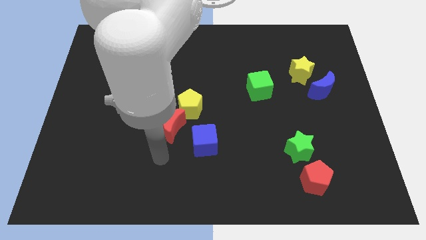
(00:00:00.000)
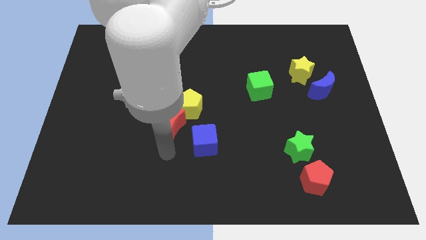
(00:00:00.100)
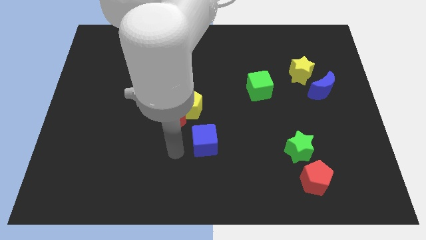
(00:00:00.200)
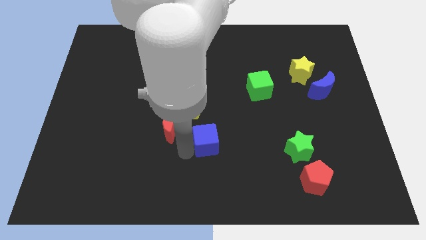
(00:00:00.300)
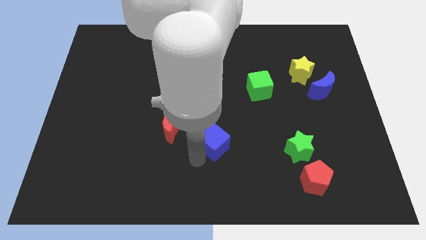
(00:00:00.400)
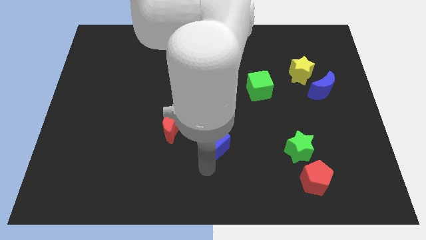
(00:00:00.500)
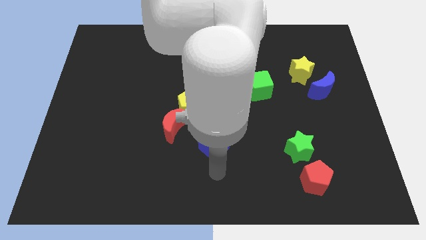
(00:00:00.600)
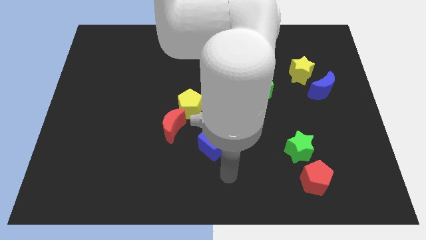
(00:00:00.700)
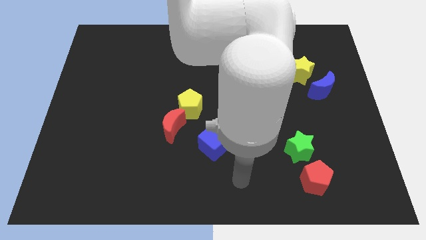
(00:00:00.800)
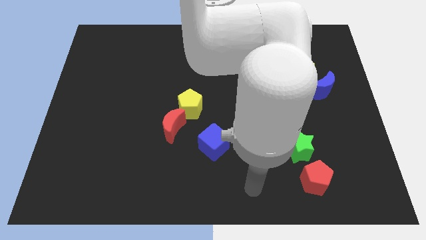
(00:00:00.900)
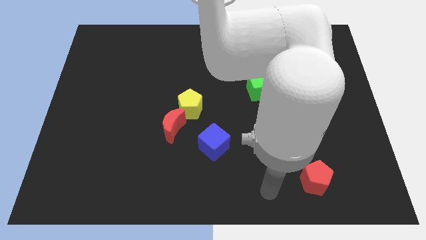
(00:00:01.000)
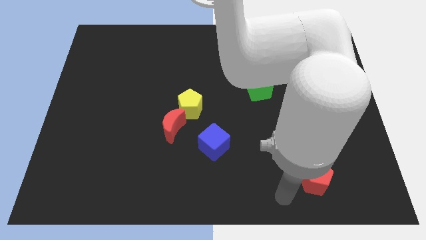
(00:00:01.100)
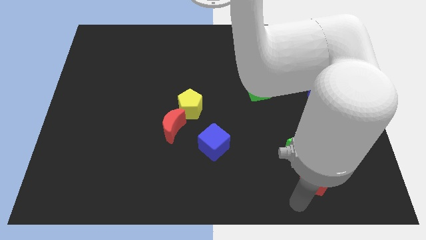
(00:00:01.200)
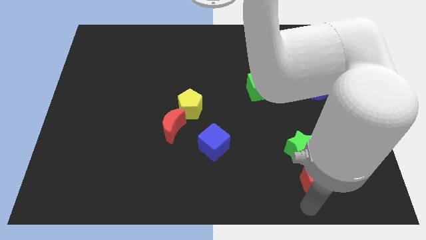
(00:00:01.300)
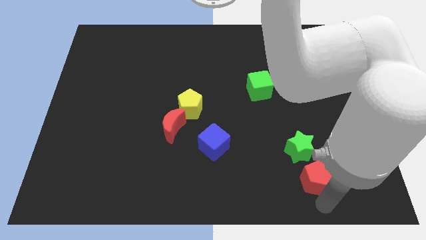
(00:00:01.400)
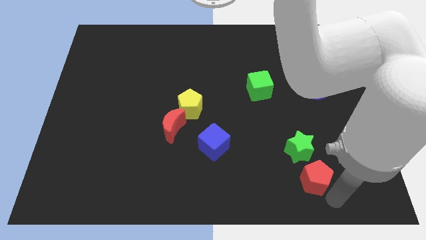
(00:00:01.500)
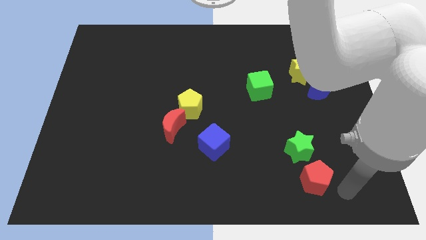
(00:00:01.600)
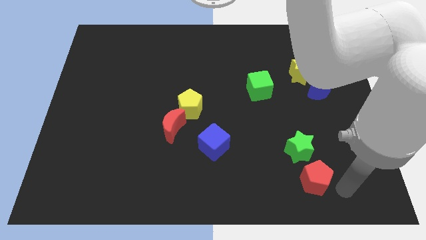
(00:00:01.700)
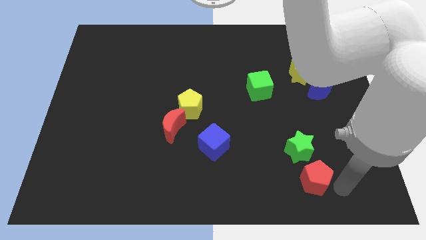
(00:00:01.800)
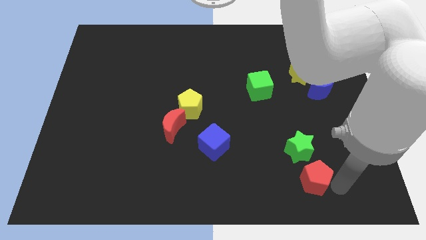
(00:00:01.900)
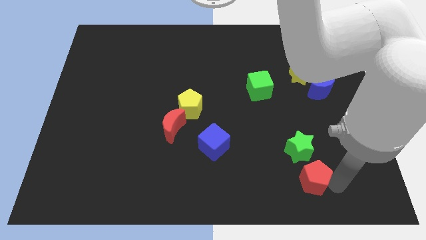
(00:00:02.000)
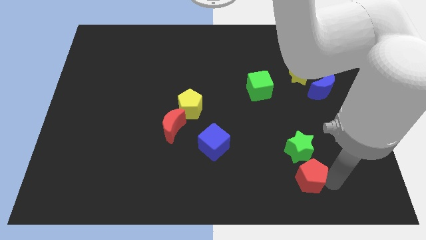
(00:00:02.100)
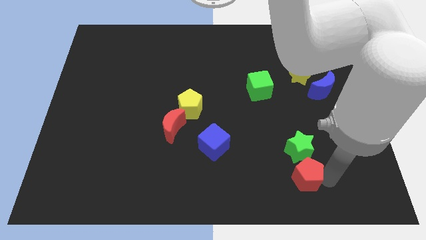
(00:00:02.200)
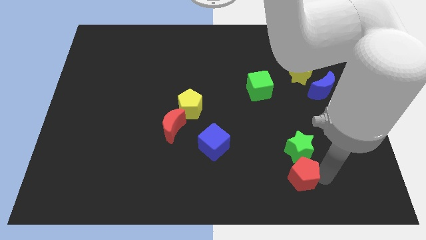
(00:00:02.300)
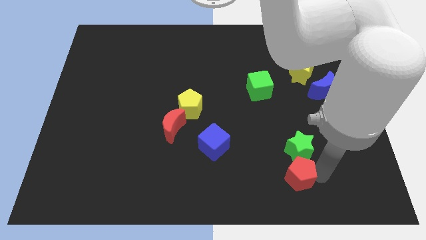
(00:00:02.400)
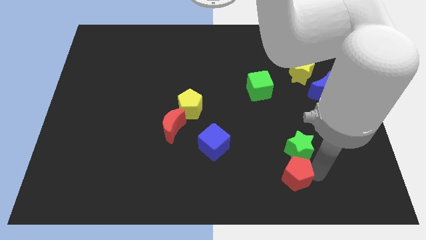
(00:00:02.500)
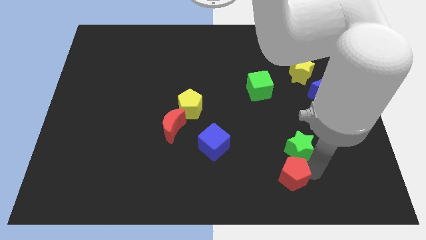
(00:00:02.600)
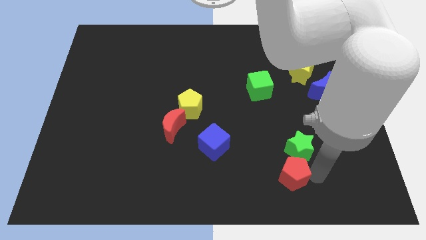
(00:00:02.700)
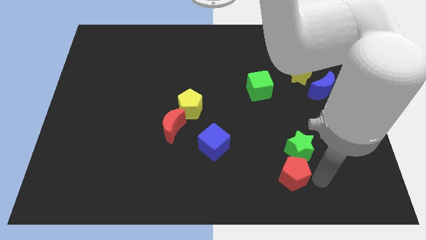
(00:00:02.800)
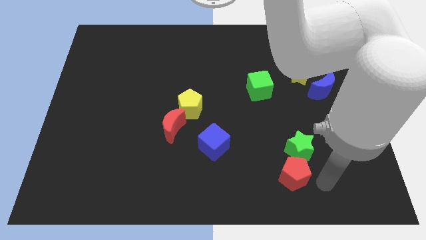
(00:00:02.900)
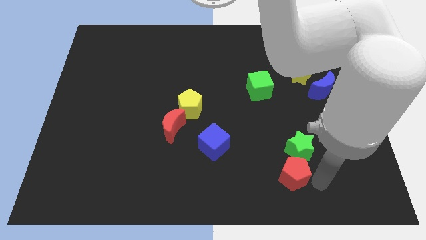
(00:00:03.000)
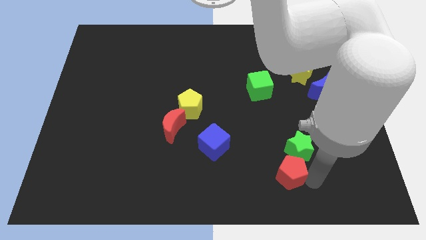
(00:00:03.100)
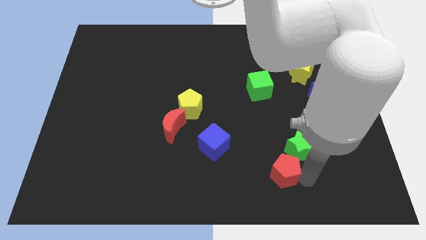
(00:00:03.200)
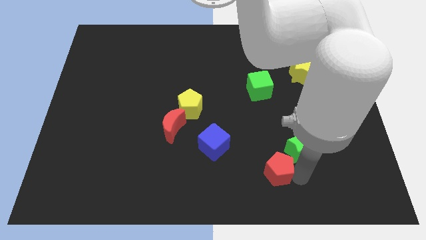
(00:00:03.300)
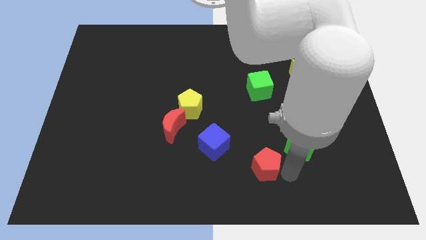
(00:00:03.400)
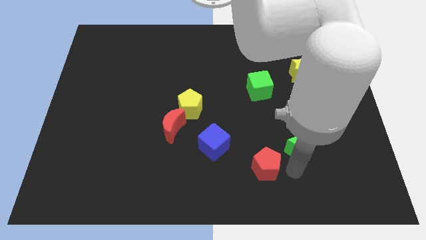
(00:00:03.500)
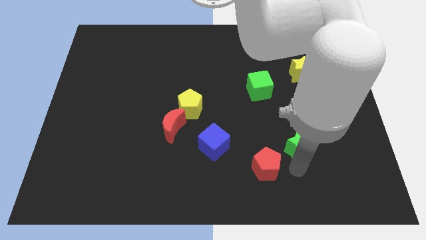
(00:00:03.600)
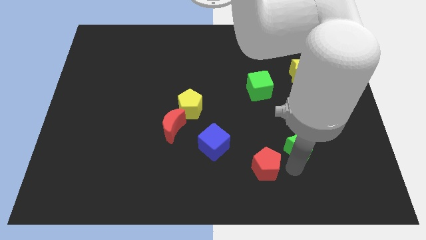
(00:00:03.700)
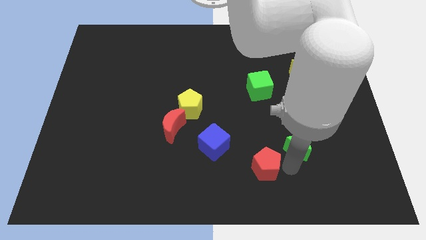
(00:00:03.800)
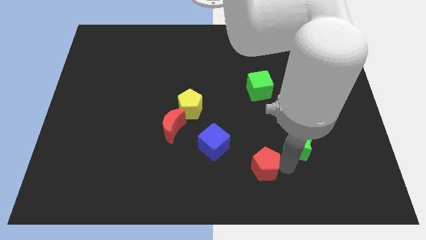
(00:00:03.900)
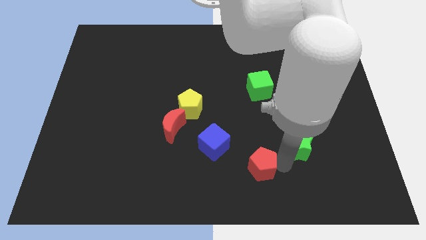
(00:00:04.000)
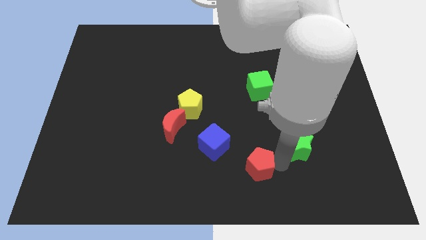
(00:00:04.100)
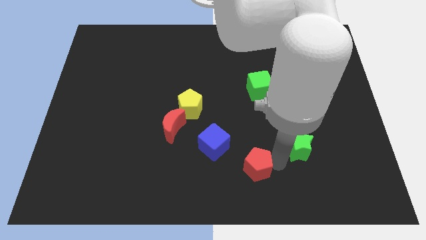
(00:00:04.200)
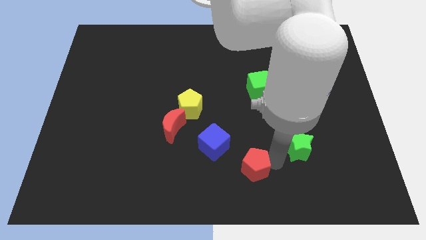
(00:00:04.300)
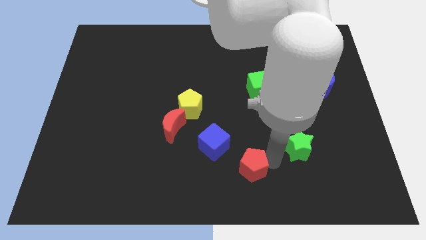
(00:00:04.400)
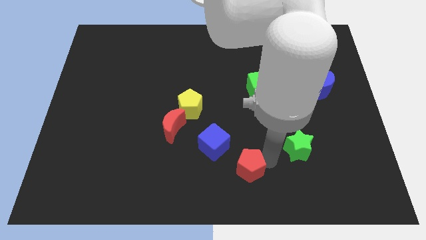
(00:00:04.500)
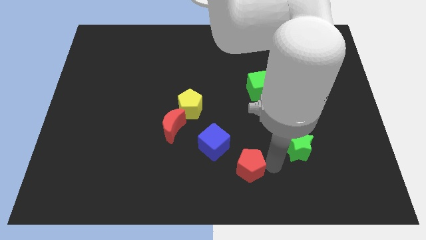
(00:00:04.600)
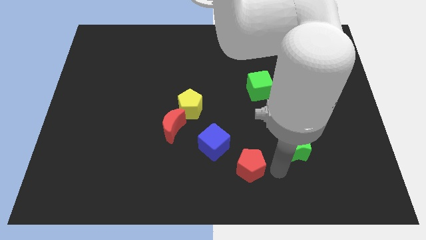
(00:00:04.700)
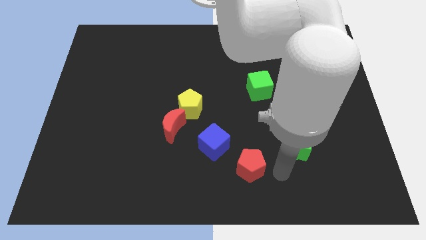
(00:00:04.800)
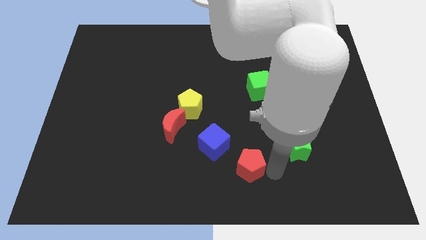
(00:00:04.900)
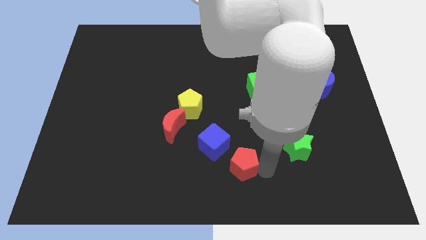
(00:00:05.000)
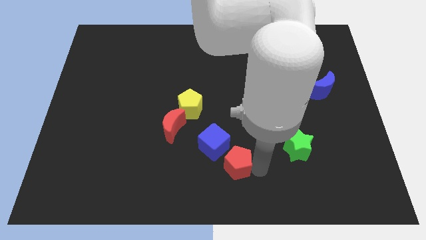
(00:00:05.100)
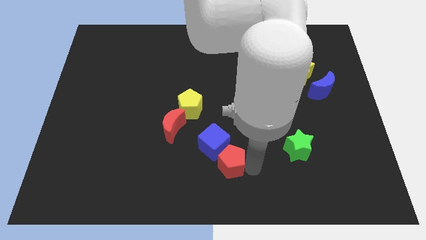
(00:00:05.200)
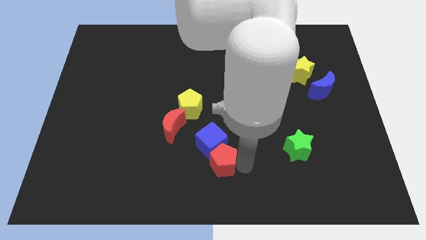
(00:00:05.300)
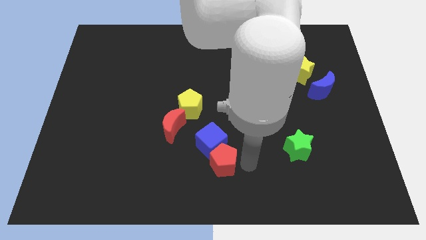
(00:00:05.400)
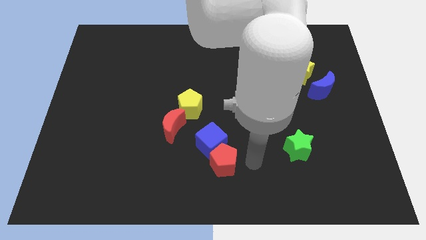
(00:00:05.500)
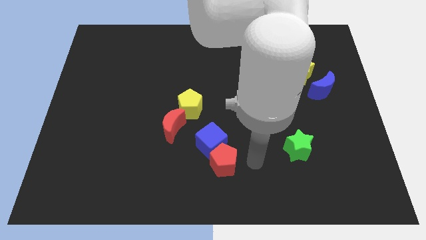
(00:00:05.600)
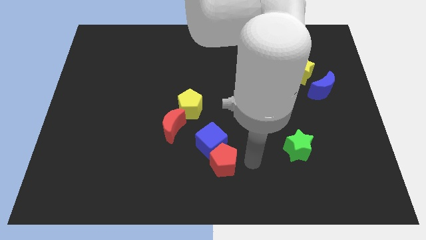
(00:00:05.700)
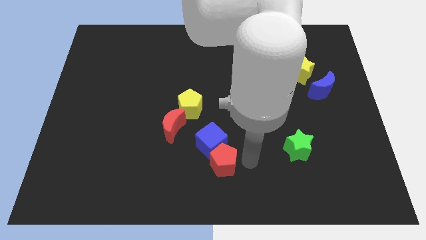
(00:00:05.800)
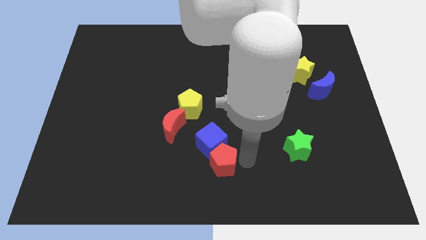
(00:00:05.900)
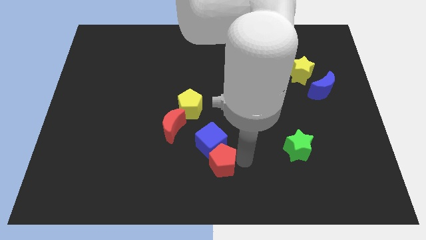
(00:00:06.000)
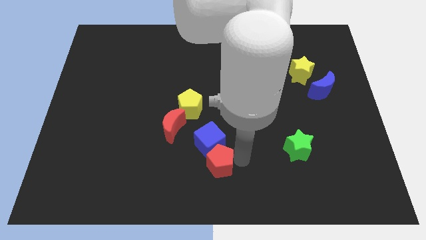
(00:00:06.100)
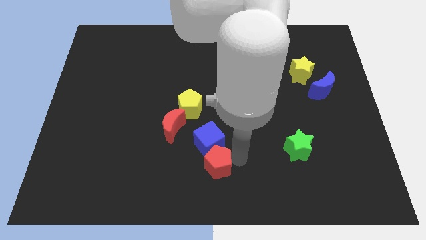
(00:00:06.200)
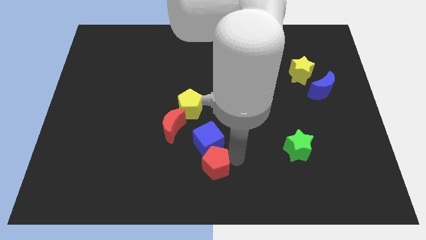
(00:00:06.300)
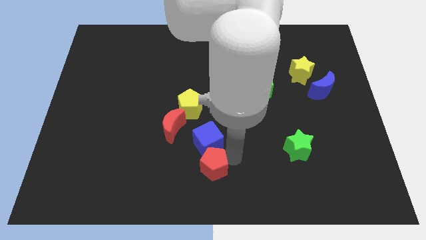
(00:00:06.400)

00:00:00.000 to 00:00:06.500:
push the red pentagon diagonally down and to the left of the blue cube
